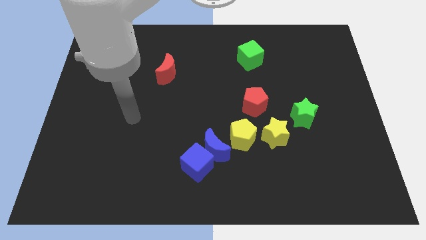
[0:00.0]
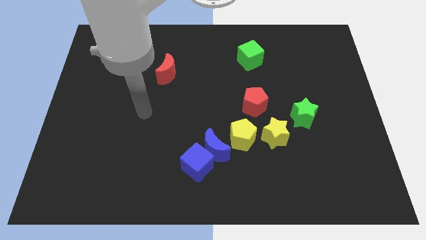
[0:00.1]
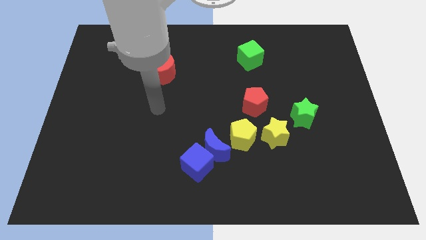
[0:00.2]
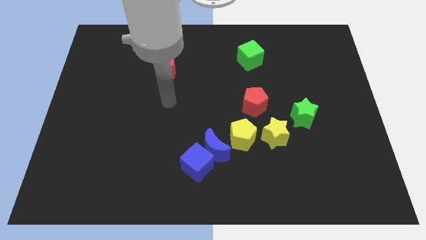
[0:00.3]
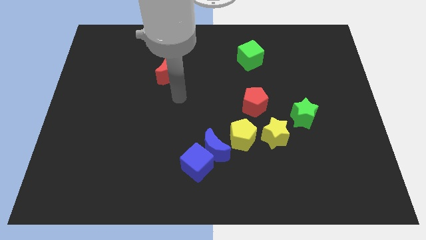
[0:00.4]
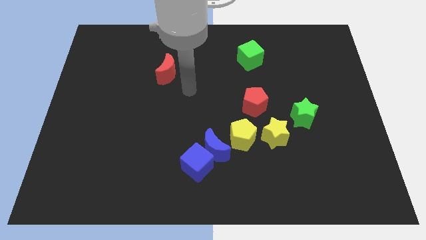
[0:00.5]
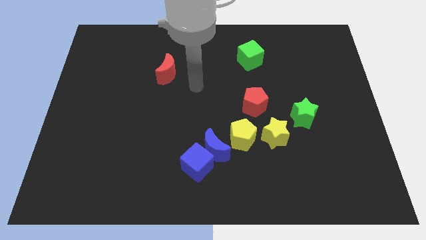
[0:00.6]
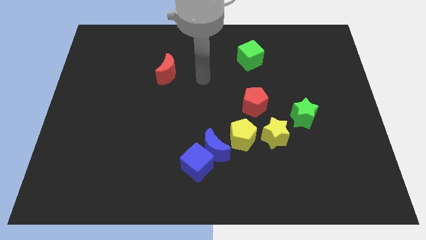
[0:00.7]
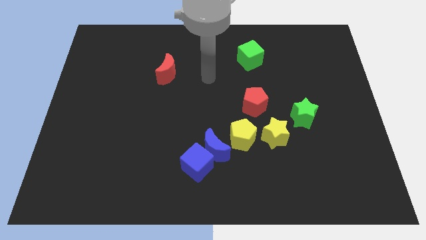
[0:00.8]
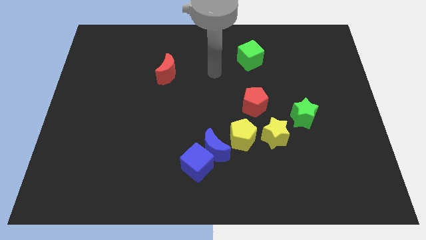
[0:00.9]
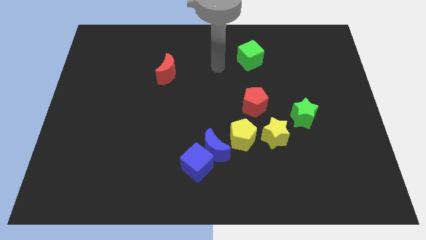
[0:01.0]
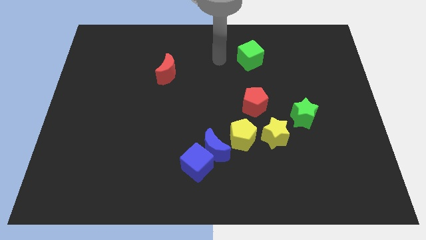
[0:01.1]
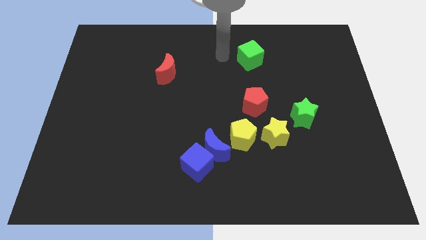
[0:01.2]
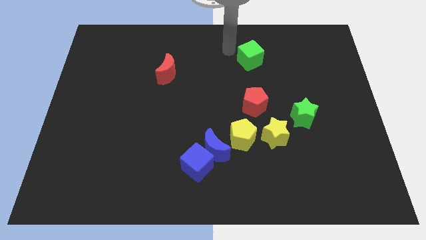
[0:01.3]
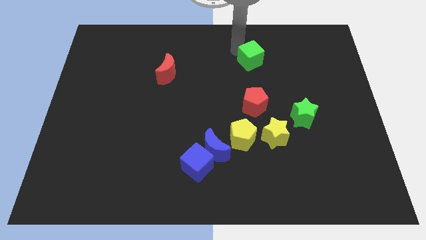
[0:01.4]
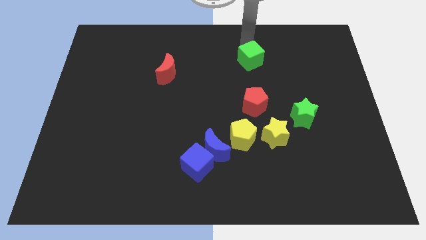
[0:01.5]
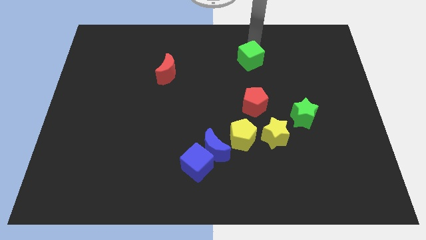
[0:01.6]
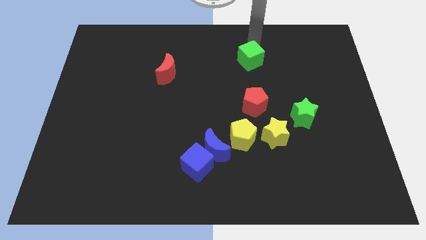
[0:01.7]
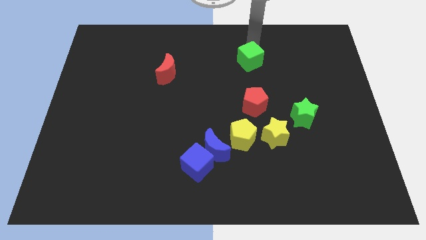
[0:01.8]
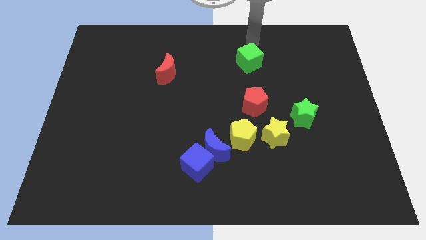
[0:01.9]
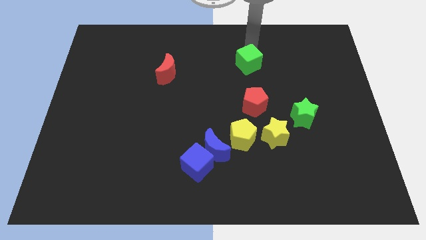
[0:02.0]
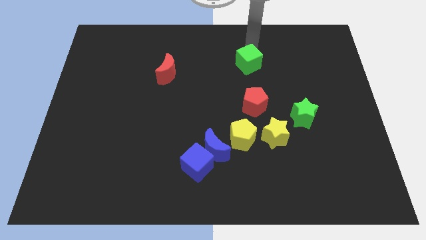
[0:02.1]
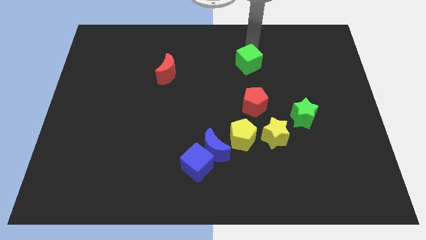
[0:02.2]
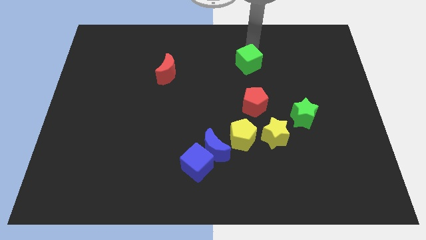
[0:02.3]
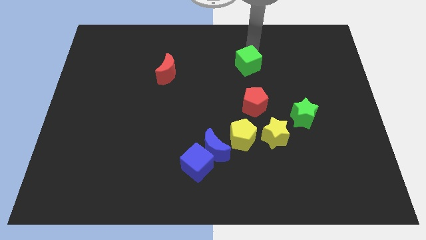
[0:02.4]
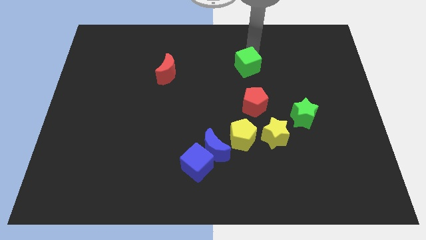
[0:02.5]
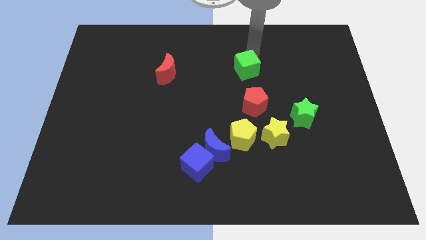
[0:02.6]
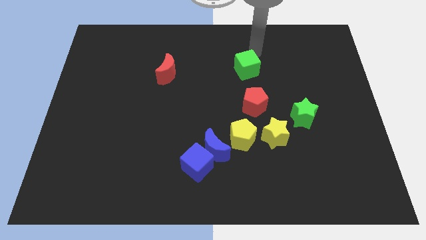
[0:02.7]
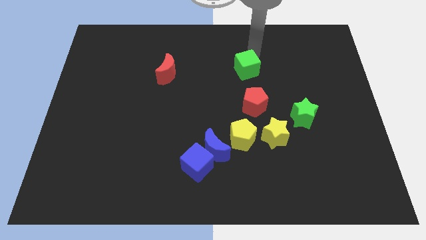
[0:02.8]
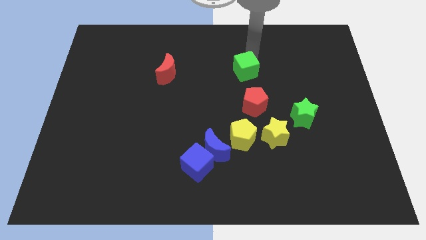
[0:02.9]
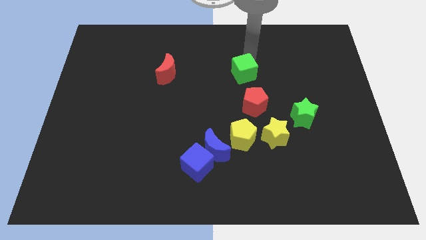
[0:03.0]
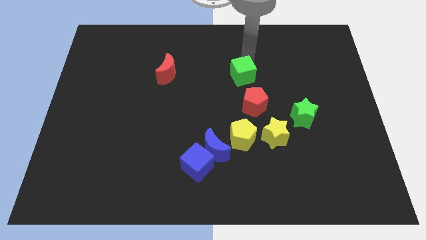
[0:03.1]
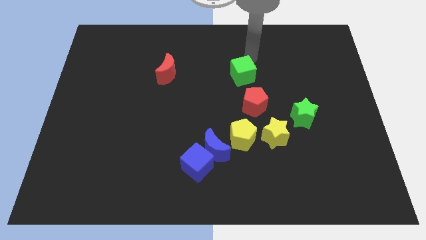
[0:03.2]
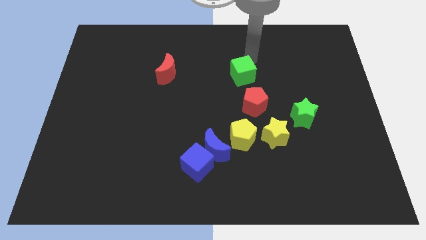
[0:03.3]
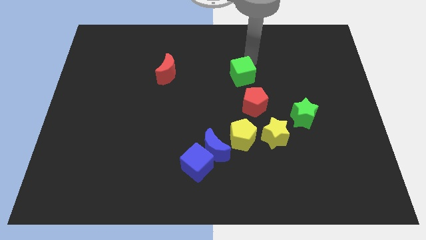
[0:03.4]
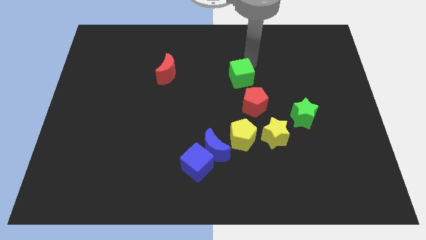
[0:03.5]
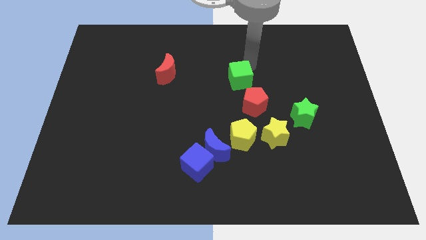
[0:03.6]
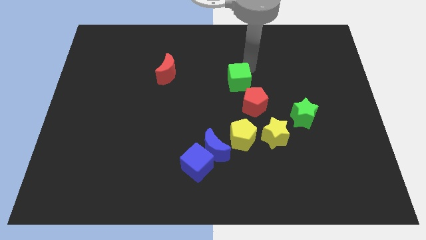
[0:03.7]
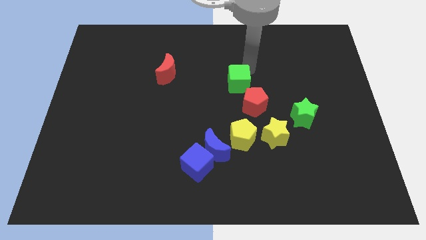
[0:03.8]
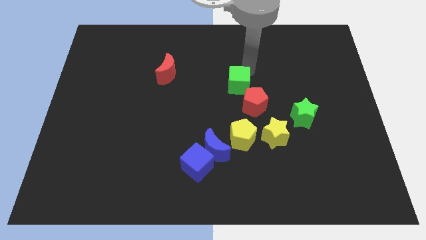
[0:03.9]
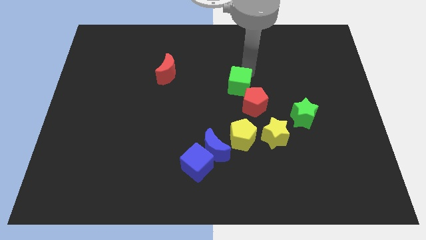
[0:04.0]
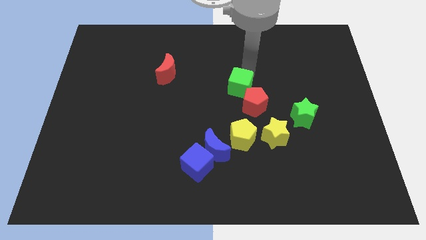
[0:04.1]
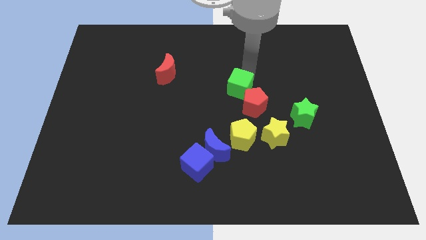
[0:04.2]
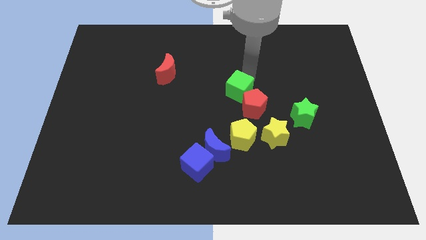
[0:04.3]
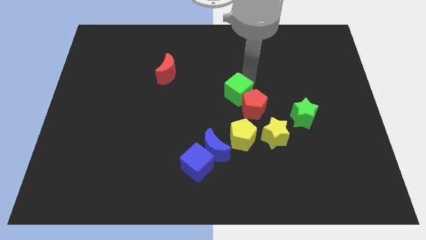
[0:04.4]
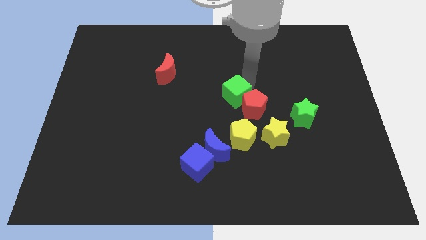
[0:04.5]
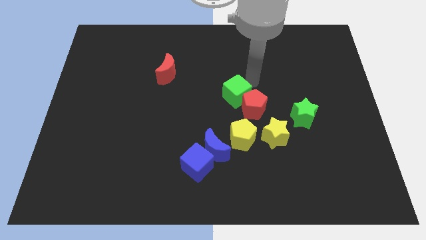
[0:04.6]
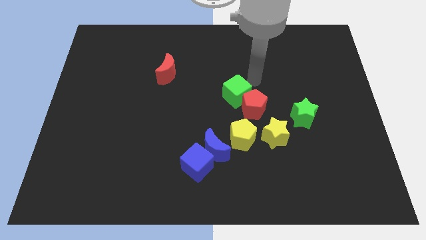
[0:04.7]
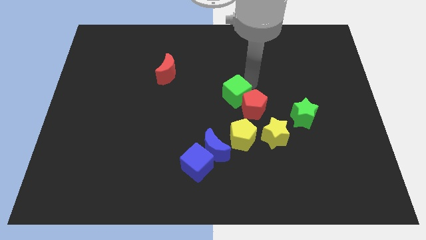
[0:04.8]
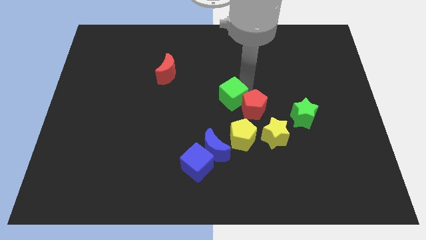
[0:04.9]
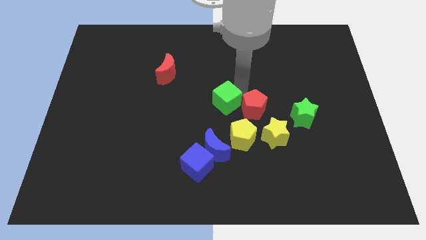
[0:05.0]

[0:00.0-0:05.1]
put the green cube to the top of the blue moon

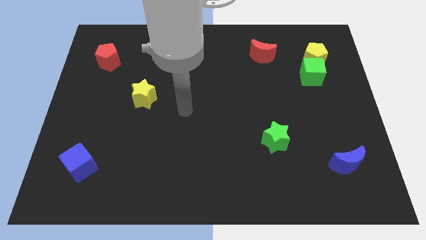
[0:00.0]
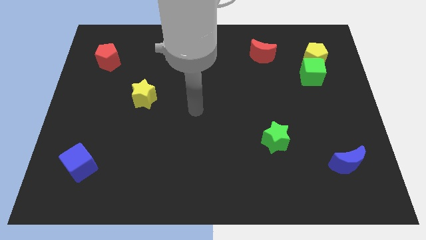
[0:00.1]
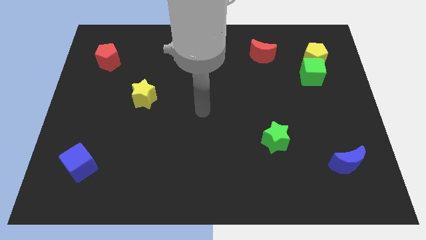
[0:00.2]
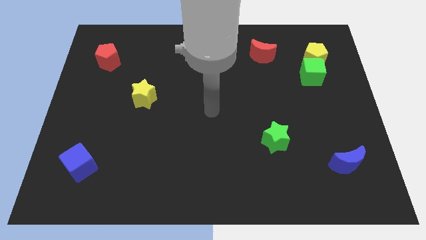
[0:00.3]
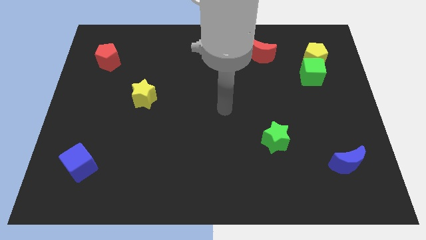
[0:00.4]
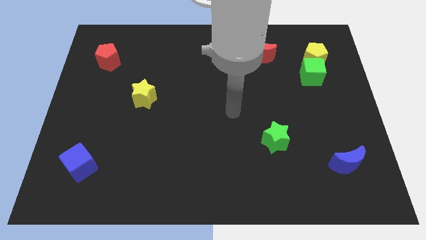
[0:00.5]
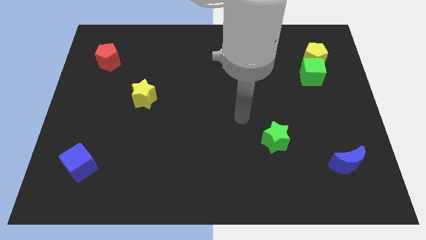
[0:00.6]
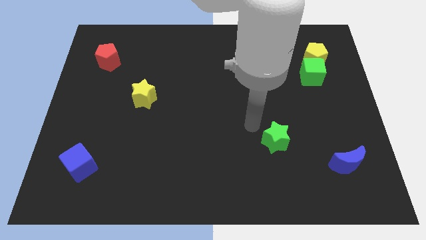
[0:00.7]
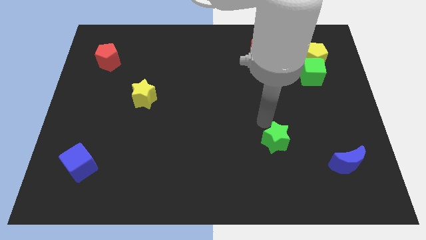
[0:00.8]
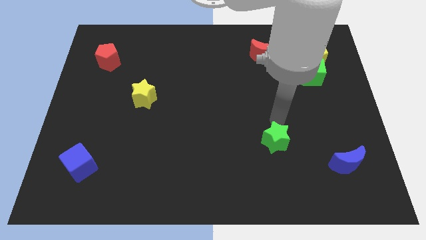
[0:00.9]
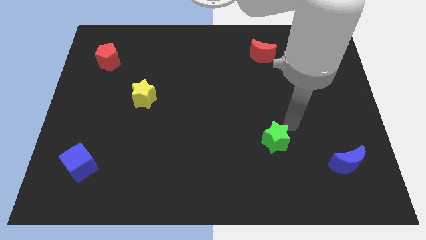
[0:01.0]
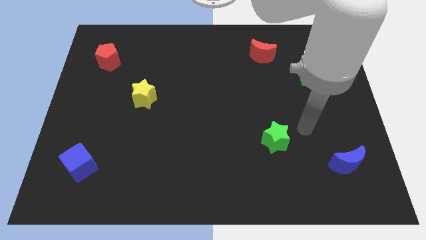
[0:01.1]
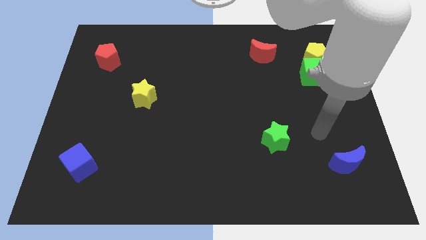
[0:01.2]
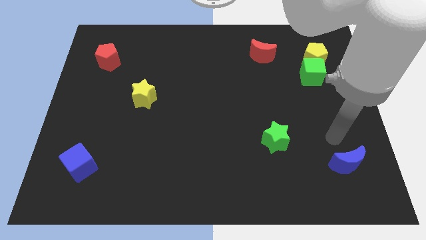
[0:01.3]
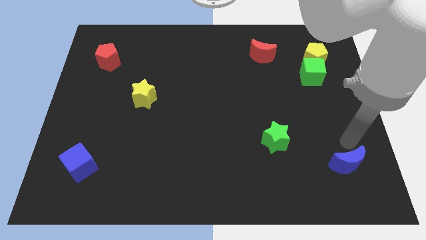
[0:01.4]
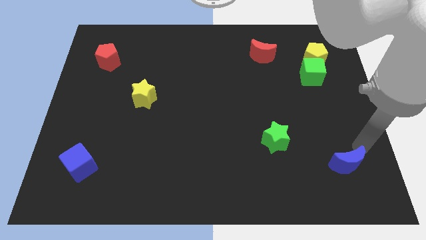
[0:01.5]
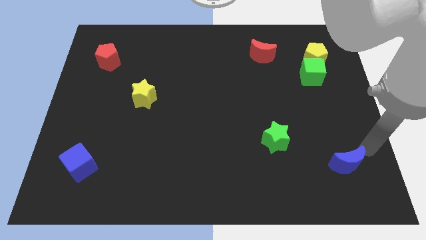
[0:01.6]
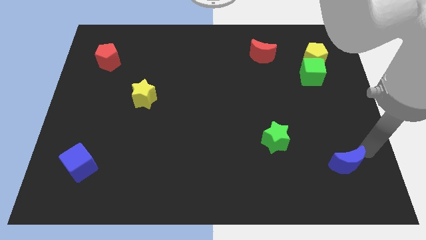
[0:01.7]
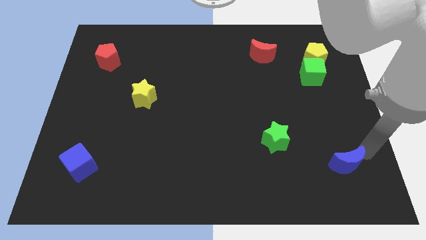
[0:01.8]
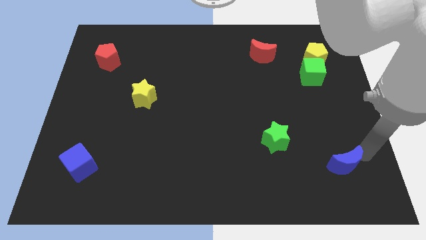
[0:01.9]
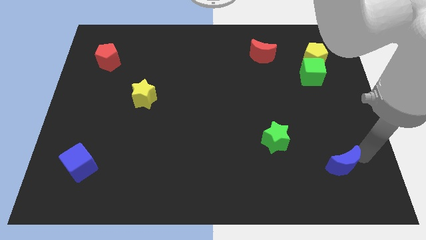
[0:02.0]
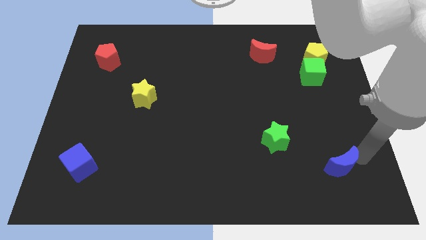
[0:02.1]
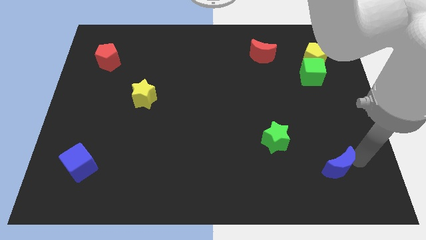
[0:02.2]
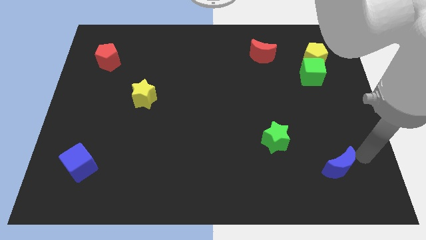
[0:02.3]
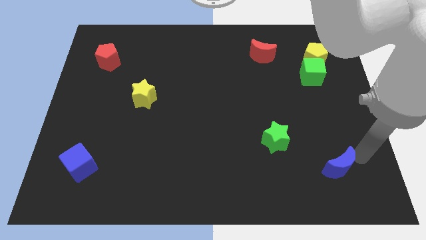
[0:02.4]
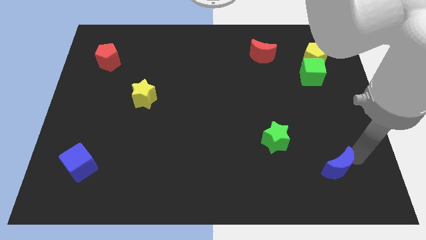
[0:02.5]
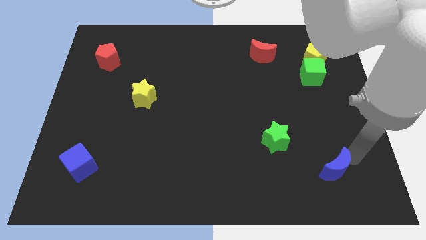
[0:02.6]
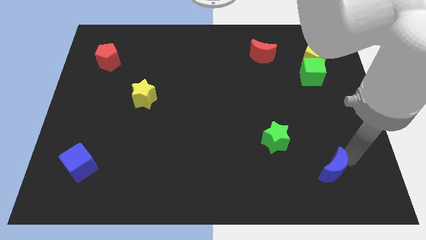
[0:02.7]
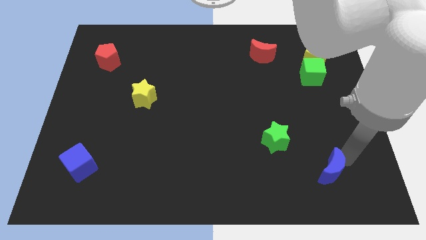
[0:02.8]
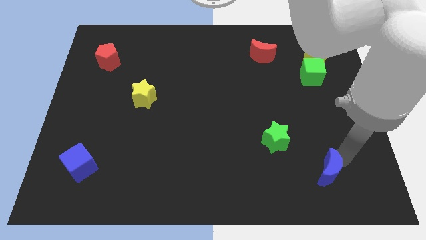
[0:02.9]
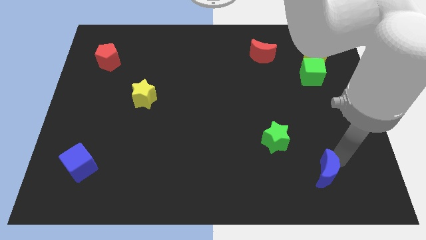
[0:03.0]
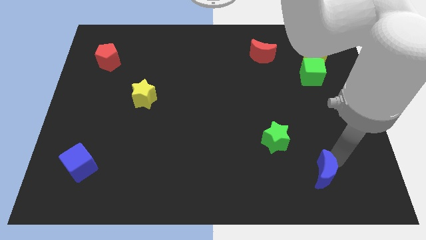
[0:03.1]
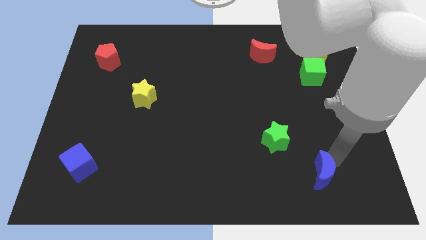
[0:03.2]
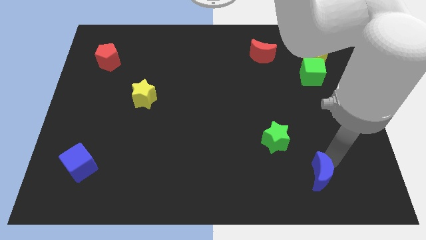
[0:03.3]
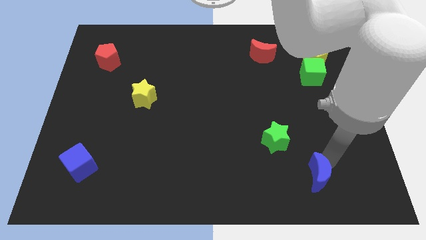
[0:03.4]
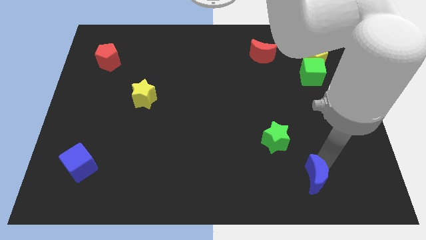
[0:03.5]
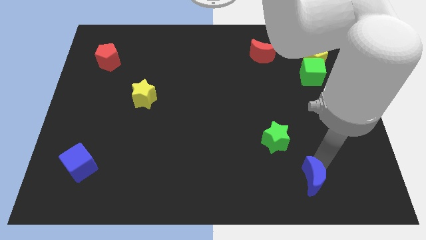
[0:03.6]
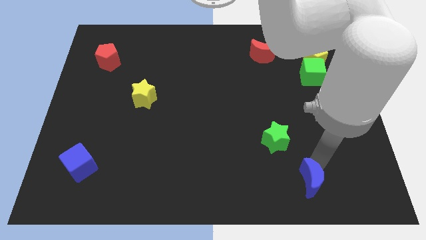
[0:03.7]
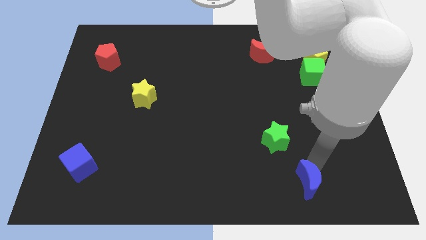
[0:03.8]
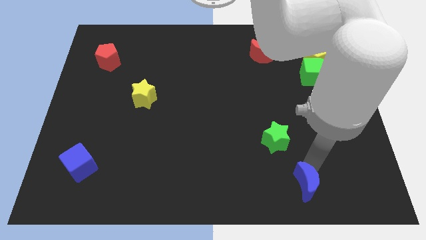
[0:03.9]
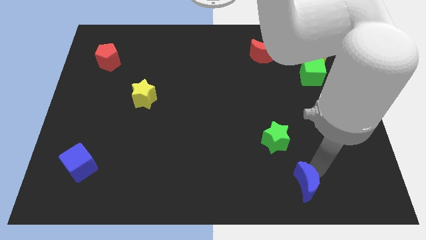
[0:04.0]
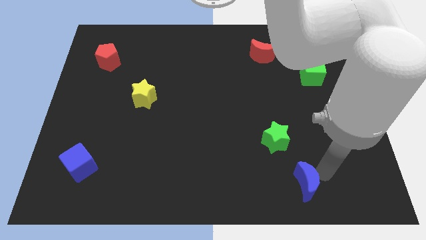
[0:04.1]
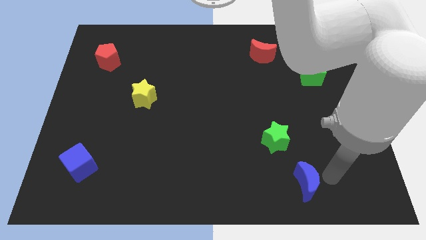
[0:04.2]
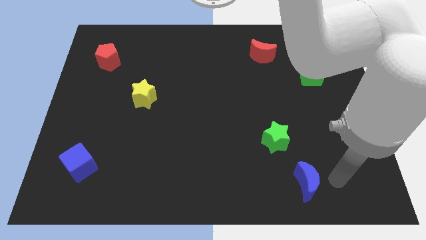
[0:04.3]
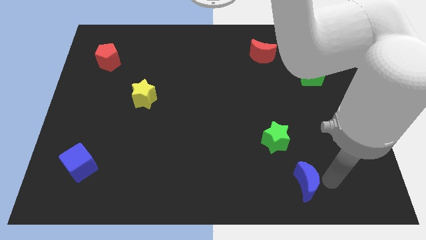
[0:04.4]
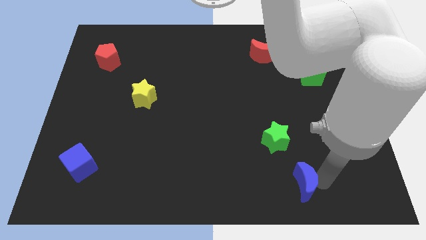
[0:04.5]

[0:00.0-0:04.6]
push the blue moon below the green star
